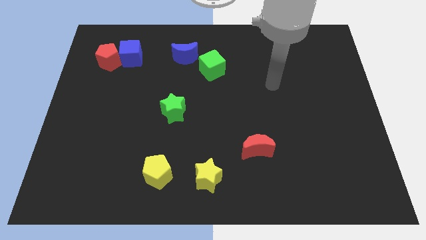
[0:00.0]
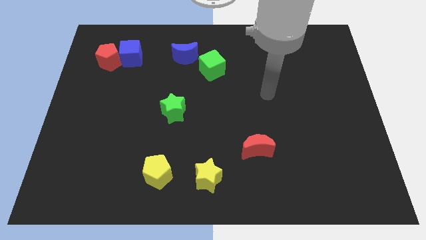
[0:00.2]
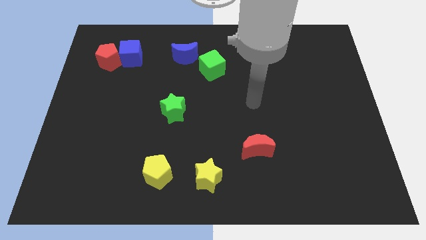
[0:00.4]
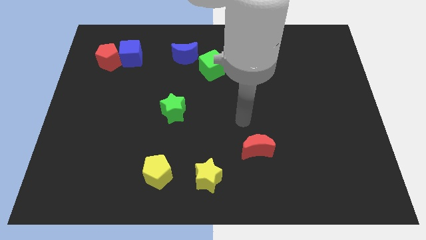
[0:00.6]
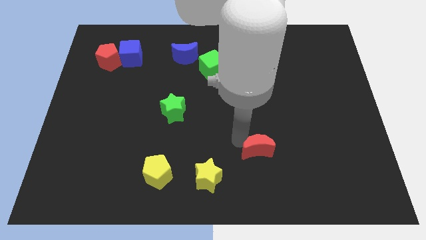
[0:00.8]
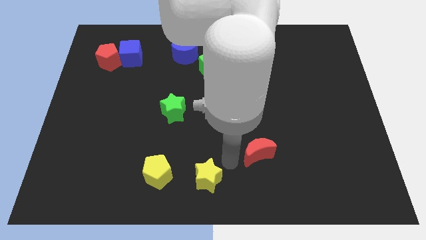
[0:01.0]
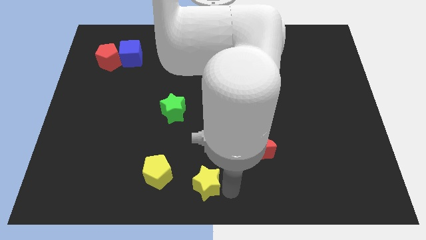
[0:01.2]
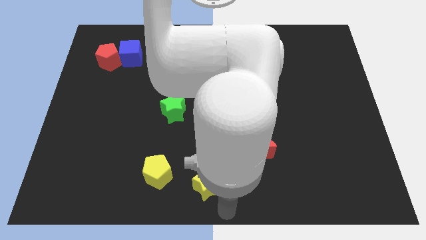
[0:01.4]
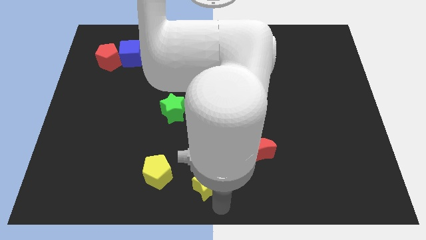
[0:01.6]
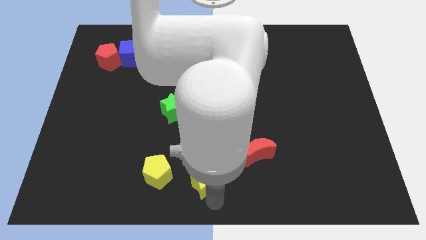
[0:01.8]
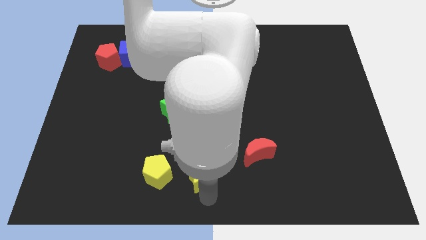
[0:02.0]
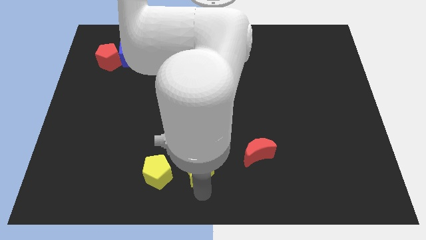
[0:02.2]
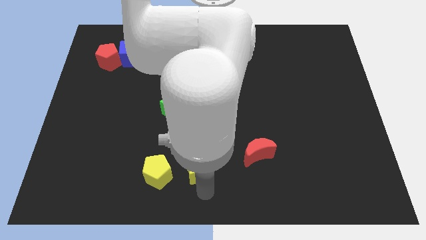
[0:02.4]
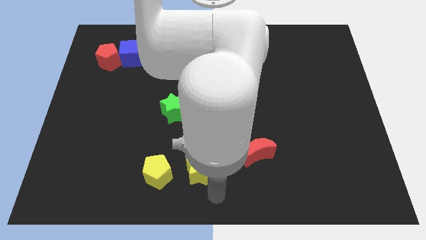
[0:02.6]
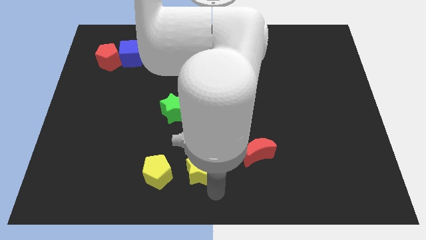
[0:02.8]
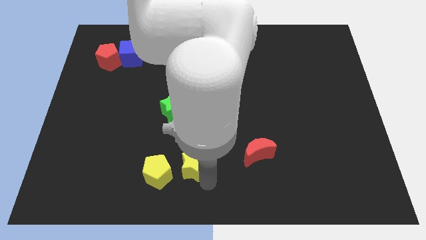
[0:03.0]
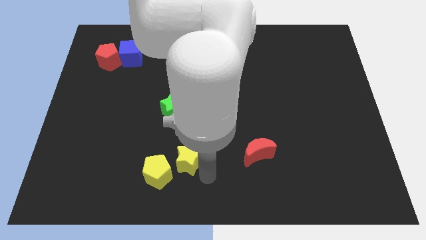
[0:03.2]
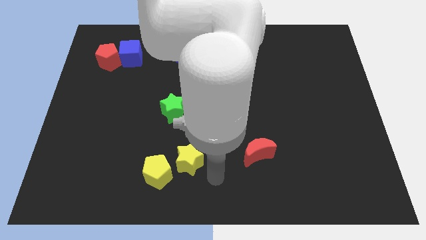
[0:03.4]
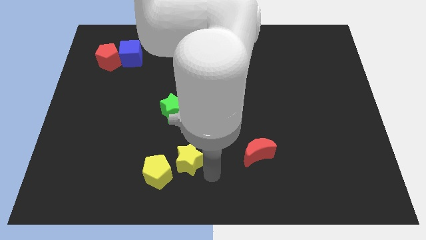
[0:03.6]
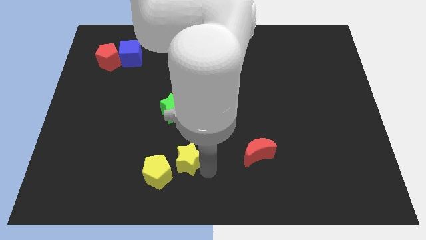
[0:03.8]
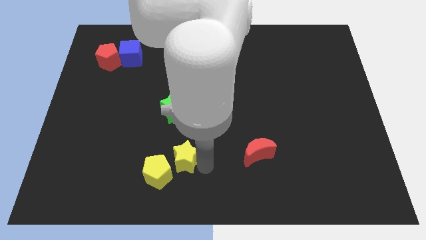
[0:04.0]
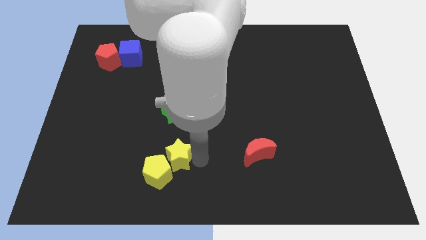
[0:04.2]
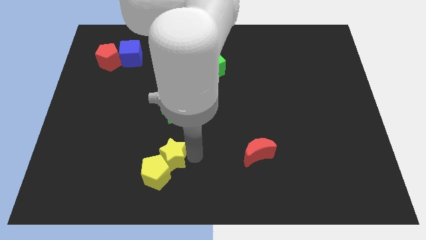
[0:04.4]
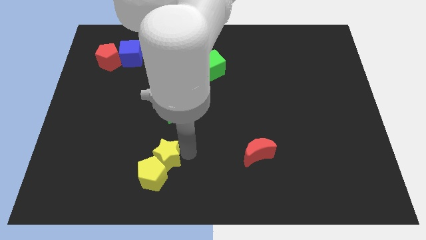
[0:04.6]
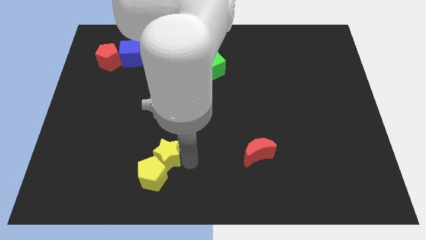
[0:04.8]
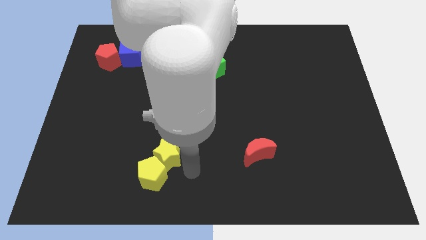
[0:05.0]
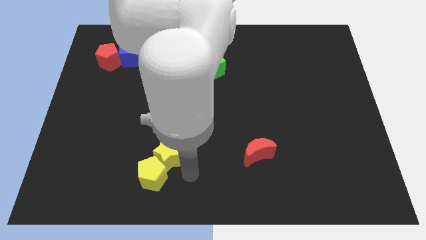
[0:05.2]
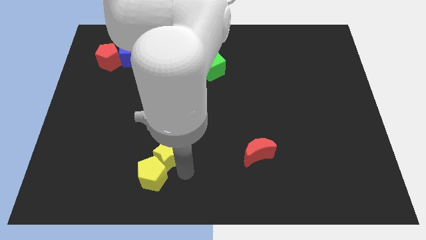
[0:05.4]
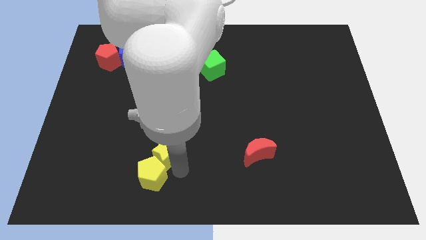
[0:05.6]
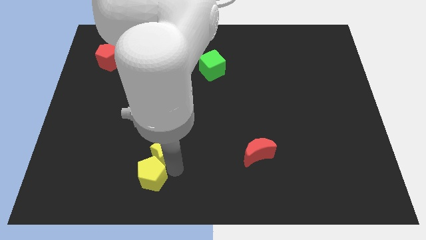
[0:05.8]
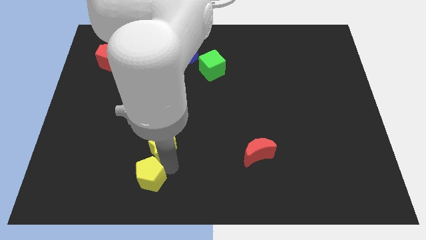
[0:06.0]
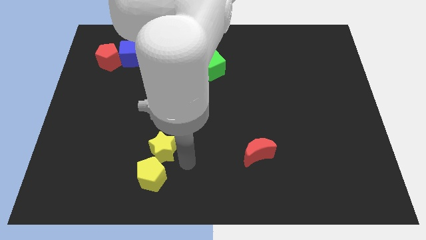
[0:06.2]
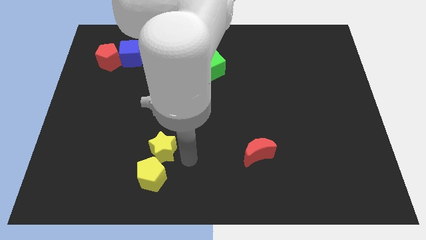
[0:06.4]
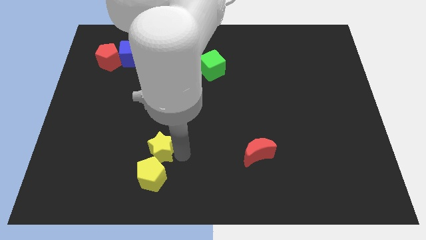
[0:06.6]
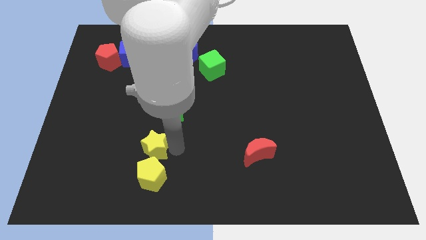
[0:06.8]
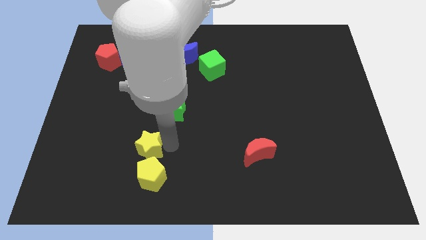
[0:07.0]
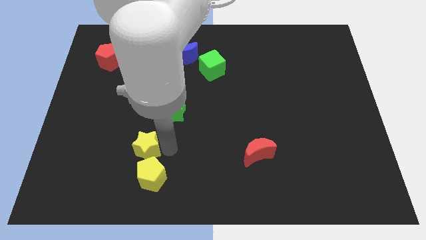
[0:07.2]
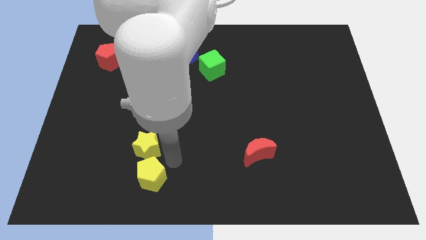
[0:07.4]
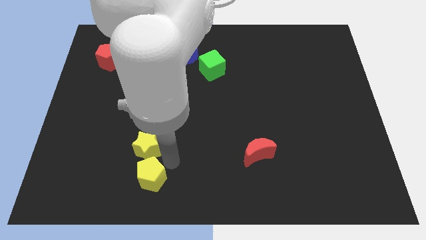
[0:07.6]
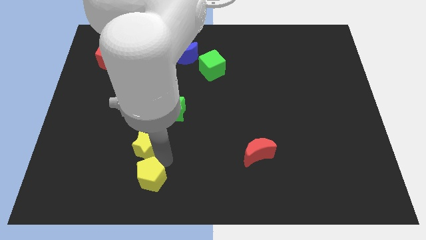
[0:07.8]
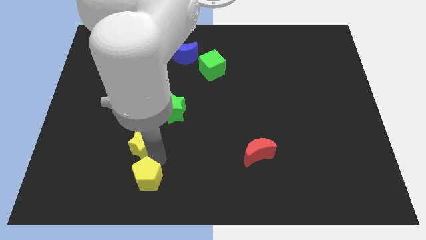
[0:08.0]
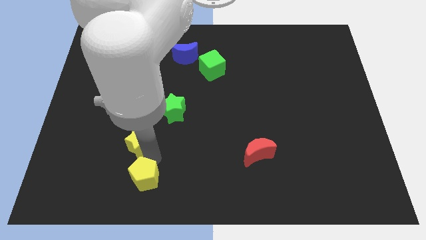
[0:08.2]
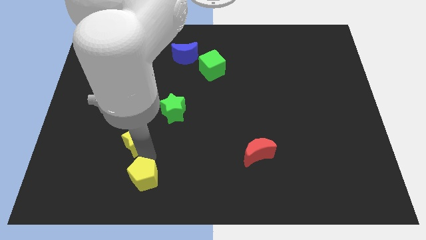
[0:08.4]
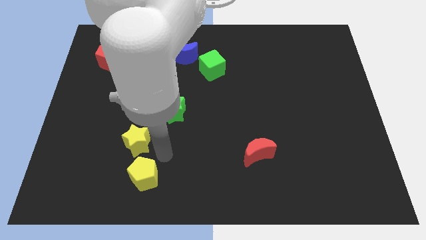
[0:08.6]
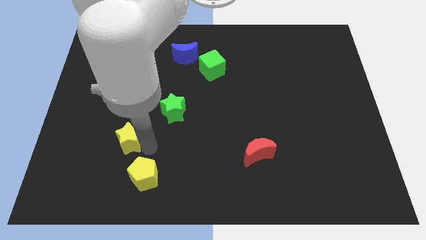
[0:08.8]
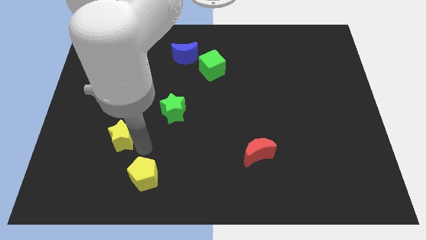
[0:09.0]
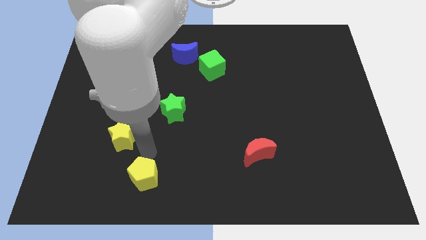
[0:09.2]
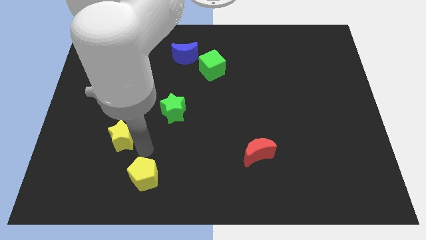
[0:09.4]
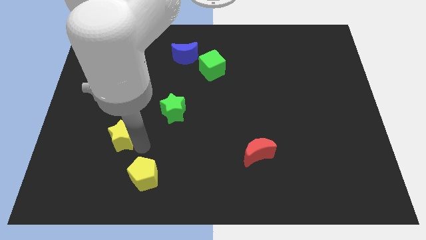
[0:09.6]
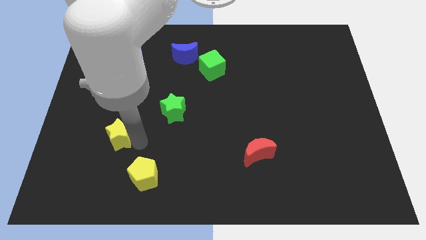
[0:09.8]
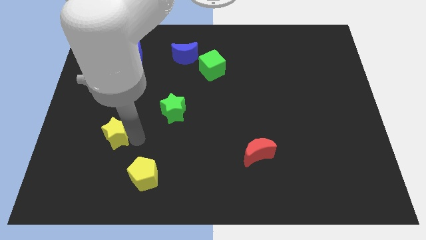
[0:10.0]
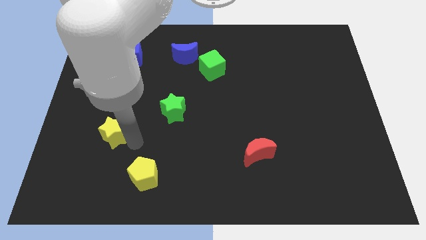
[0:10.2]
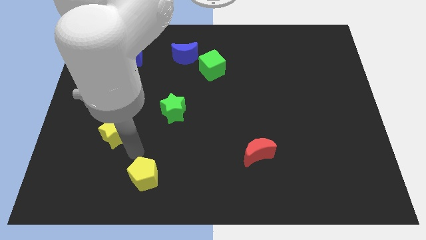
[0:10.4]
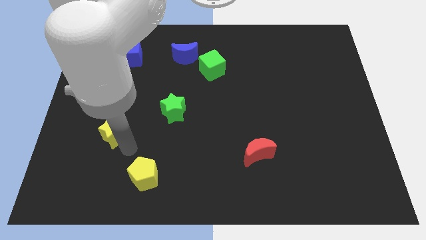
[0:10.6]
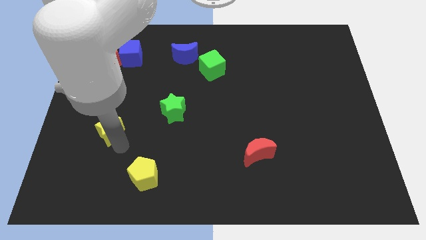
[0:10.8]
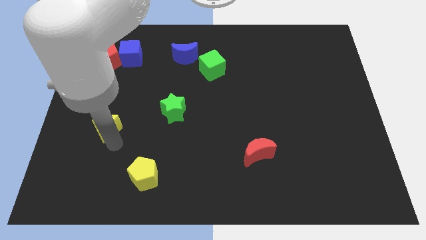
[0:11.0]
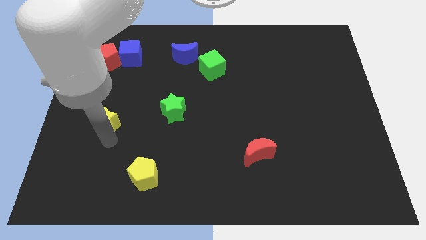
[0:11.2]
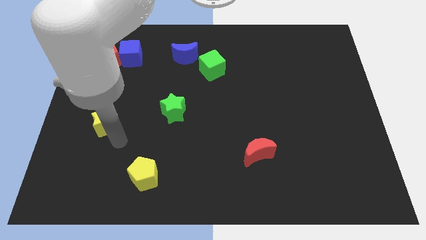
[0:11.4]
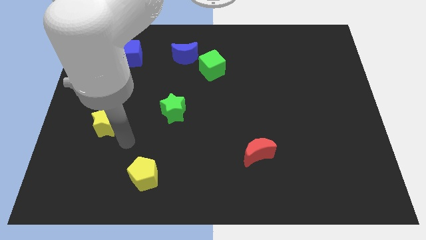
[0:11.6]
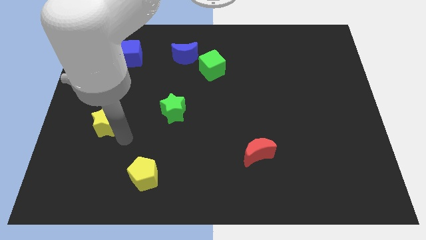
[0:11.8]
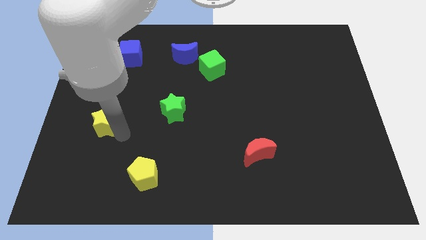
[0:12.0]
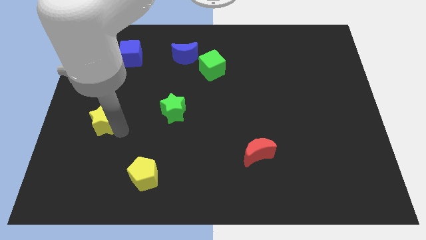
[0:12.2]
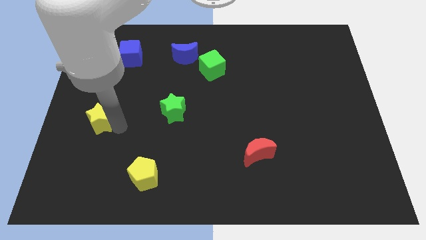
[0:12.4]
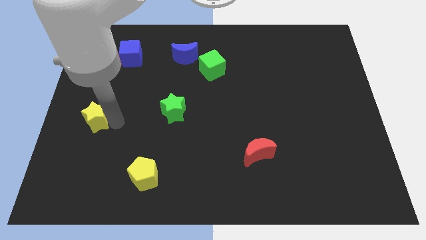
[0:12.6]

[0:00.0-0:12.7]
push the yellow star to the left side of the board
